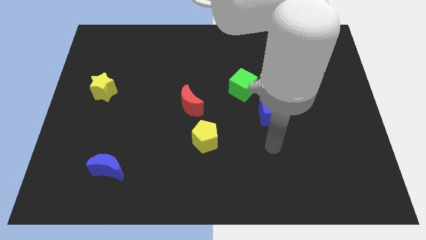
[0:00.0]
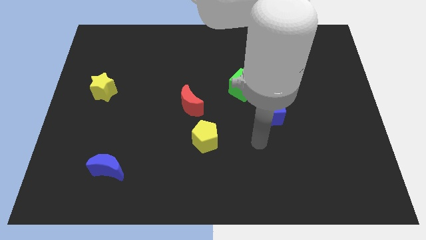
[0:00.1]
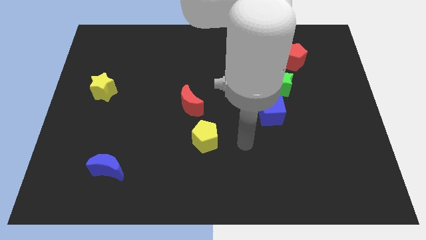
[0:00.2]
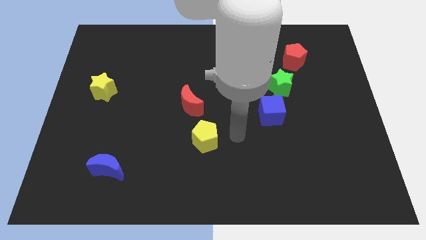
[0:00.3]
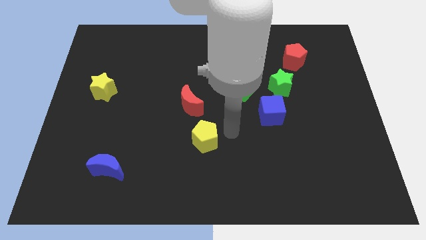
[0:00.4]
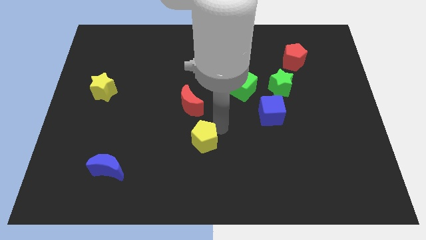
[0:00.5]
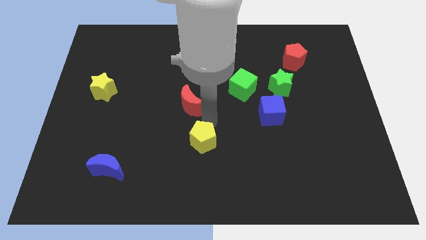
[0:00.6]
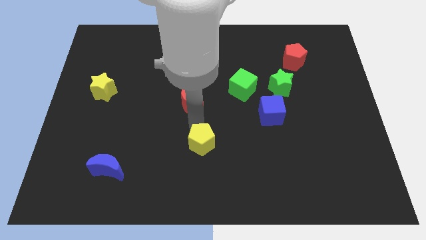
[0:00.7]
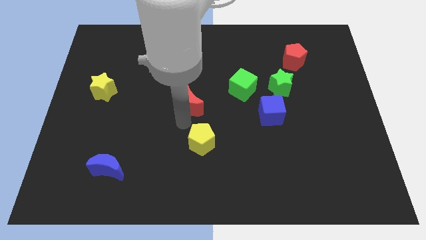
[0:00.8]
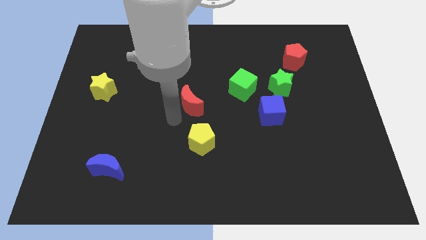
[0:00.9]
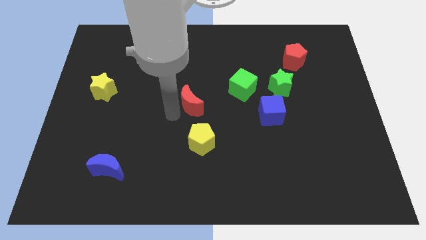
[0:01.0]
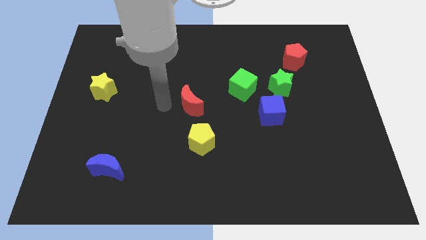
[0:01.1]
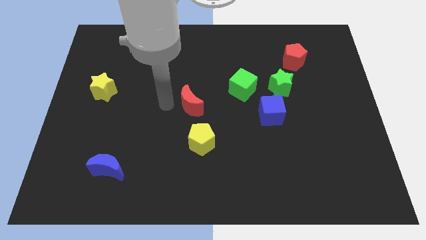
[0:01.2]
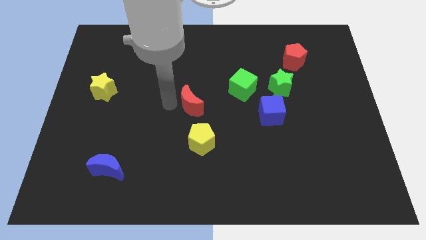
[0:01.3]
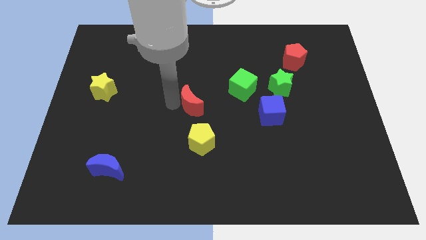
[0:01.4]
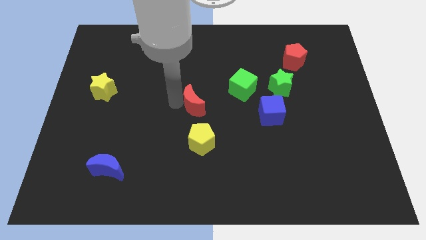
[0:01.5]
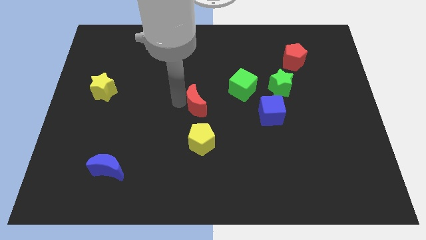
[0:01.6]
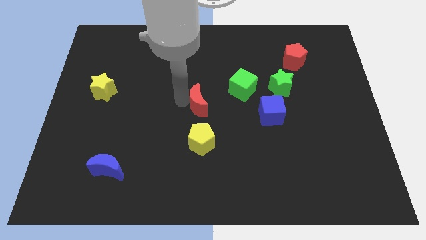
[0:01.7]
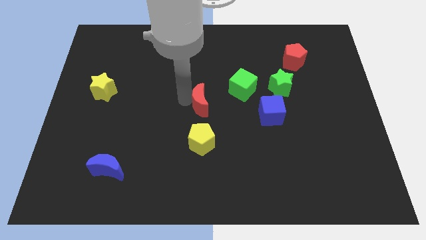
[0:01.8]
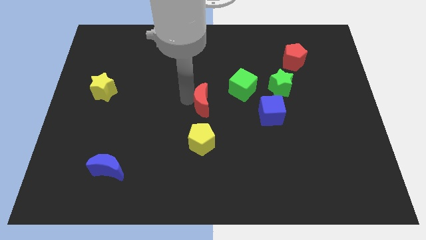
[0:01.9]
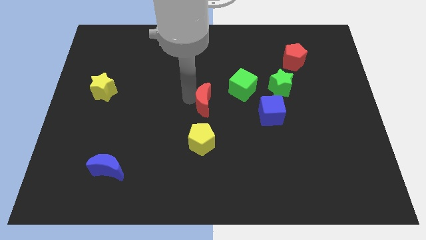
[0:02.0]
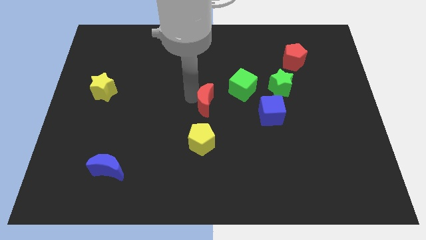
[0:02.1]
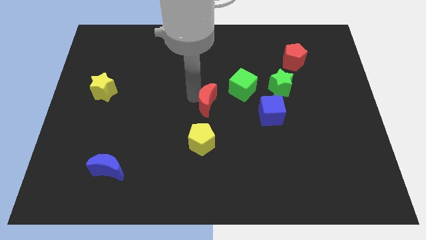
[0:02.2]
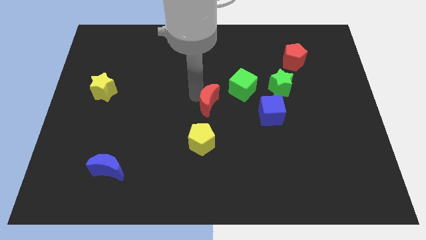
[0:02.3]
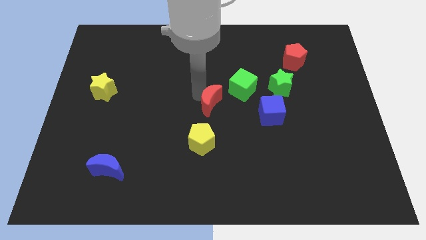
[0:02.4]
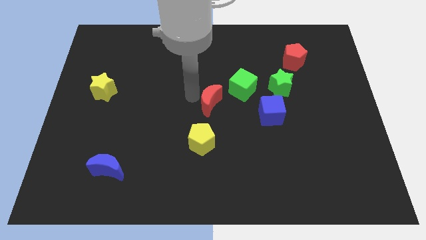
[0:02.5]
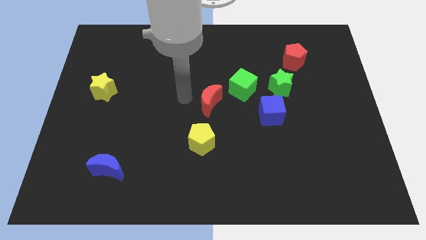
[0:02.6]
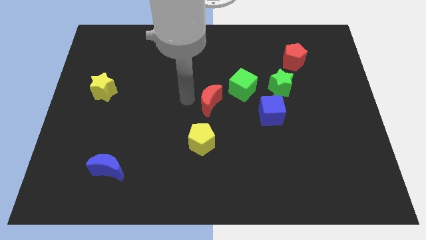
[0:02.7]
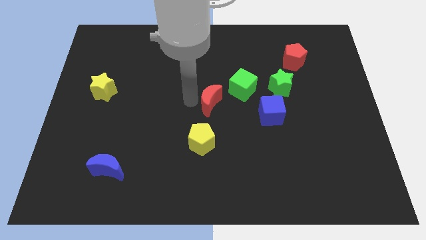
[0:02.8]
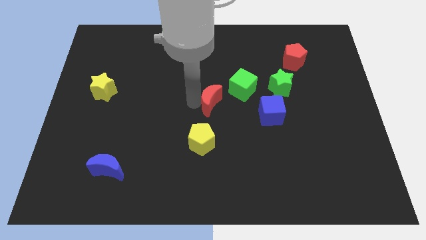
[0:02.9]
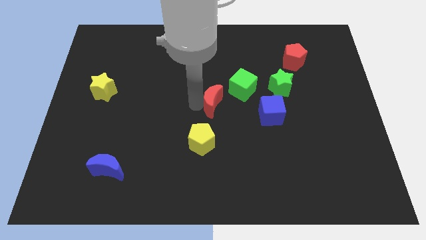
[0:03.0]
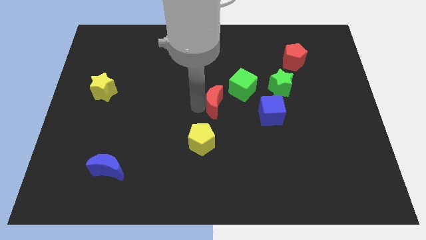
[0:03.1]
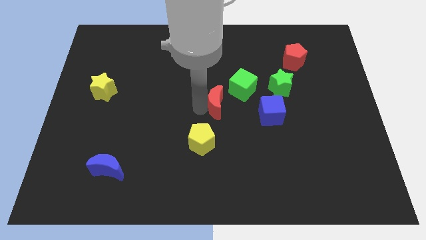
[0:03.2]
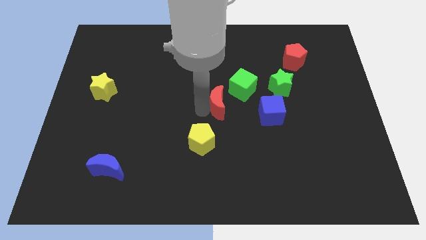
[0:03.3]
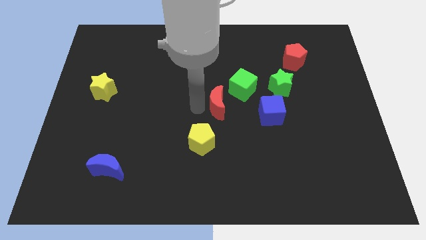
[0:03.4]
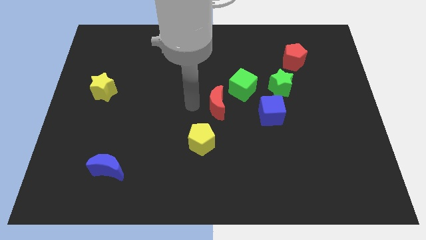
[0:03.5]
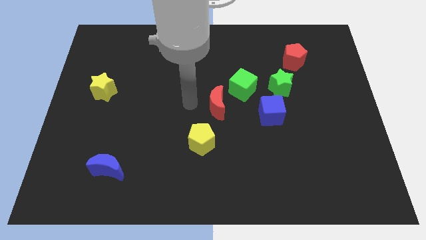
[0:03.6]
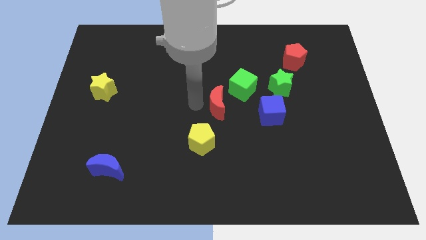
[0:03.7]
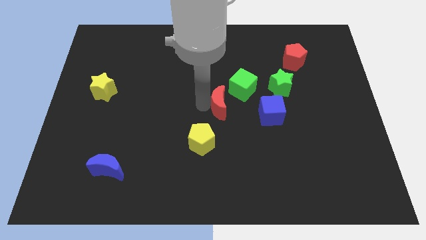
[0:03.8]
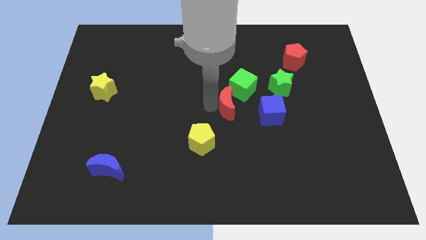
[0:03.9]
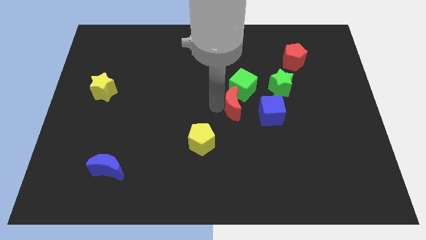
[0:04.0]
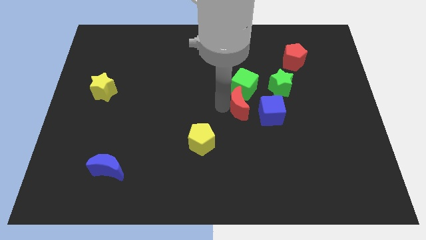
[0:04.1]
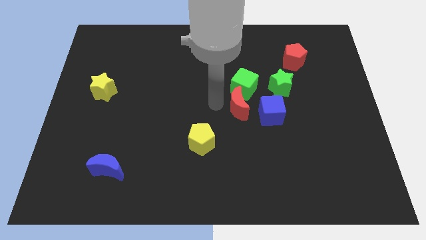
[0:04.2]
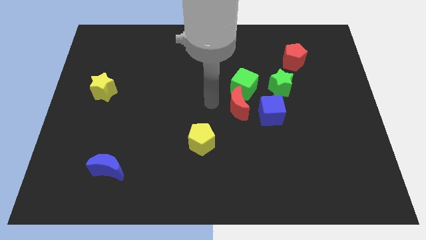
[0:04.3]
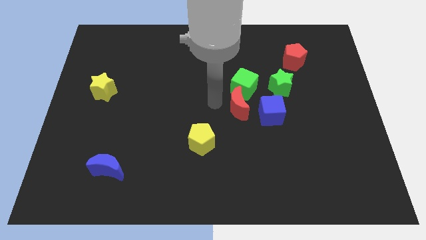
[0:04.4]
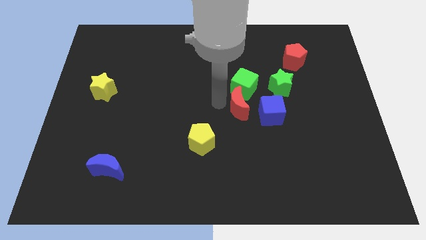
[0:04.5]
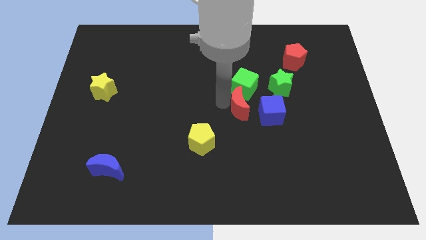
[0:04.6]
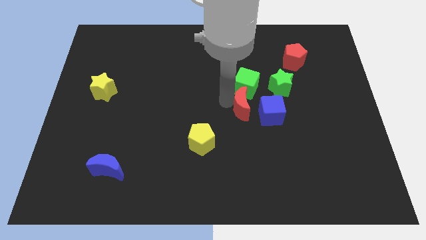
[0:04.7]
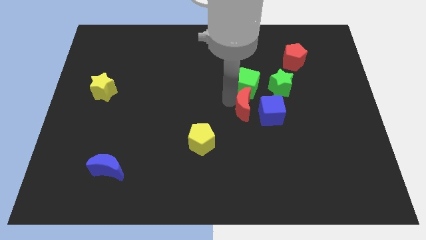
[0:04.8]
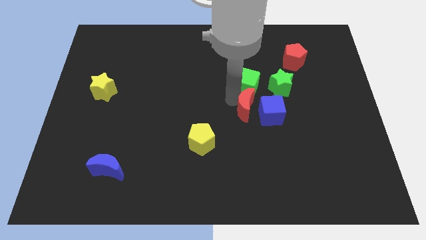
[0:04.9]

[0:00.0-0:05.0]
move the red moon towards the blue cube

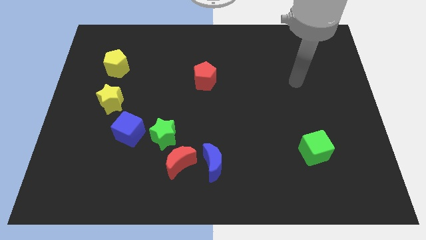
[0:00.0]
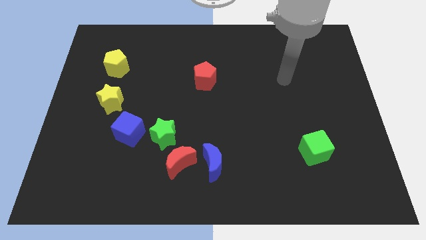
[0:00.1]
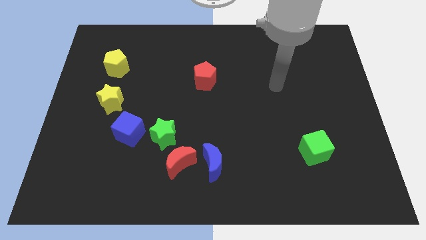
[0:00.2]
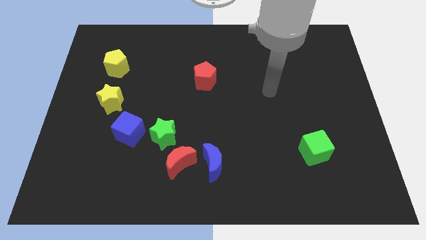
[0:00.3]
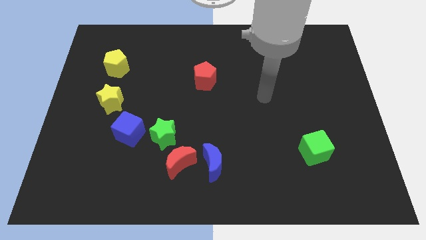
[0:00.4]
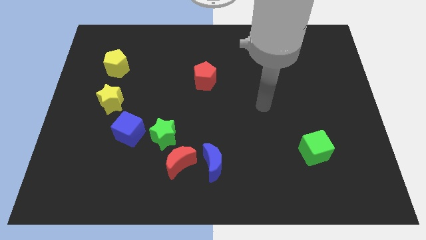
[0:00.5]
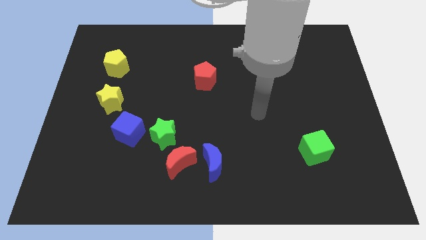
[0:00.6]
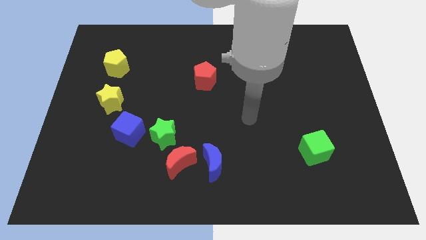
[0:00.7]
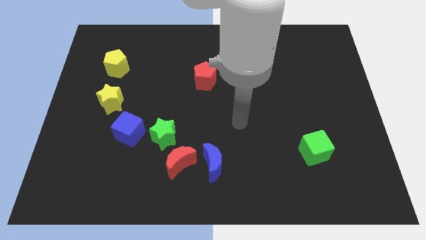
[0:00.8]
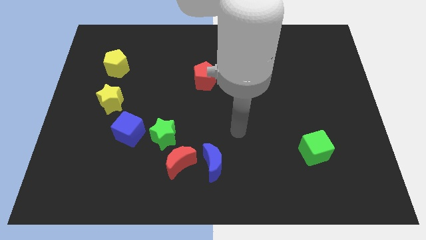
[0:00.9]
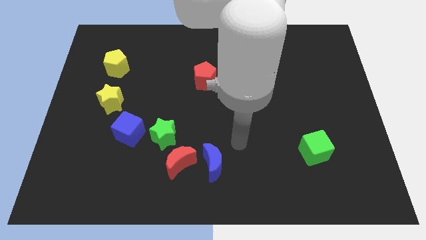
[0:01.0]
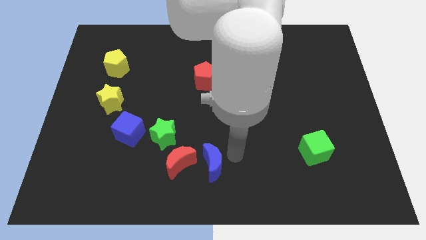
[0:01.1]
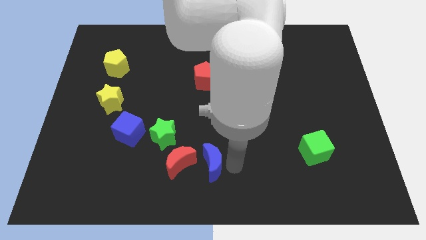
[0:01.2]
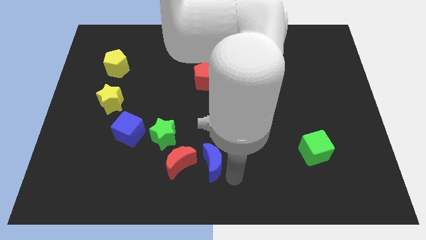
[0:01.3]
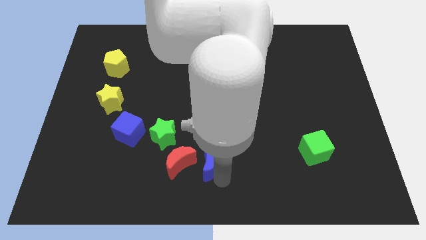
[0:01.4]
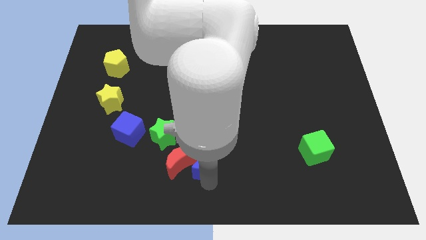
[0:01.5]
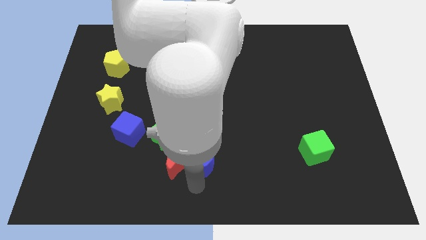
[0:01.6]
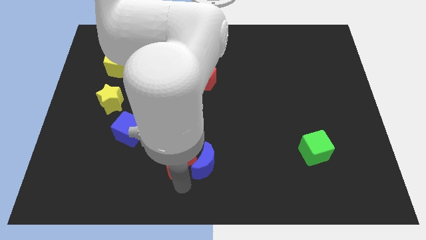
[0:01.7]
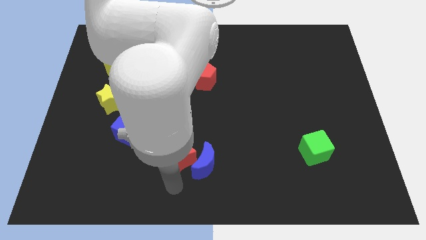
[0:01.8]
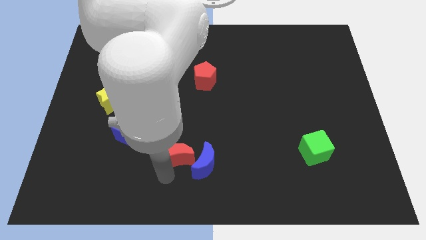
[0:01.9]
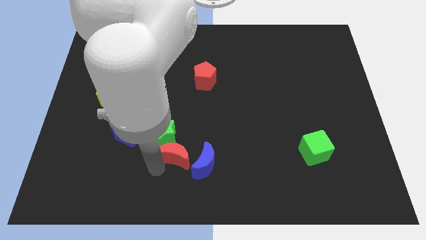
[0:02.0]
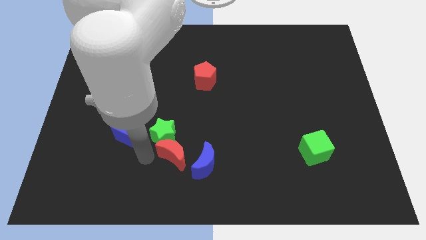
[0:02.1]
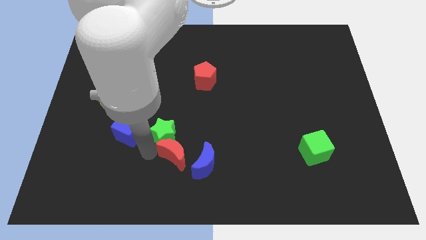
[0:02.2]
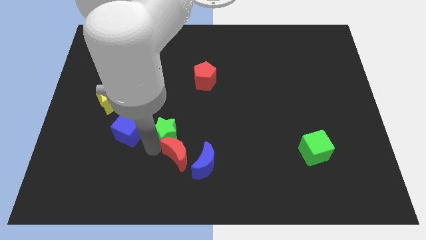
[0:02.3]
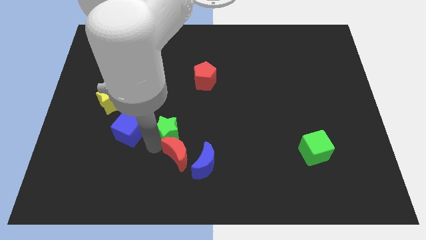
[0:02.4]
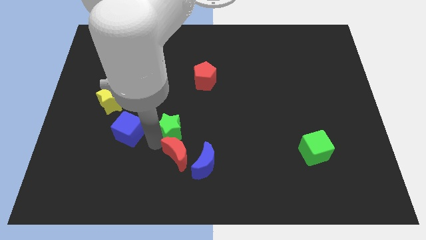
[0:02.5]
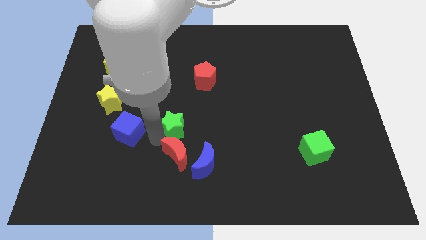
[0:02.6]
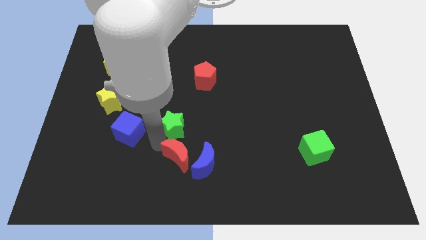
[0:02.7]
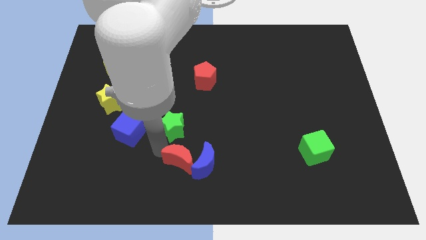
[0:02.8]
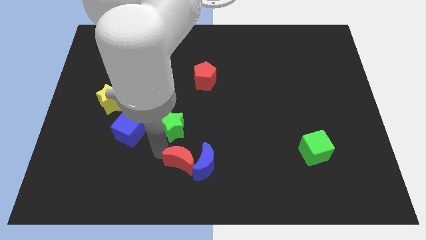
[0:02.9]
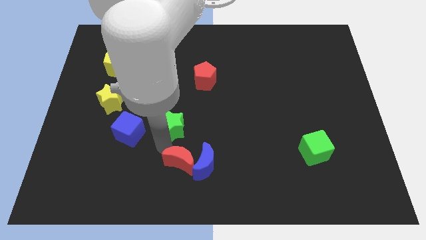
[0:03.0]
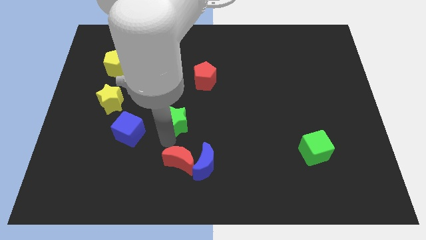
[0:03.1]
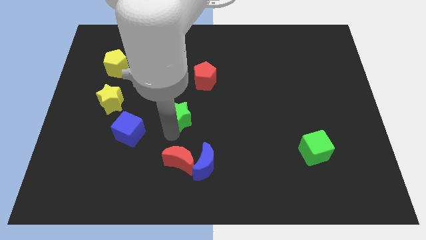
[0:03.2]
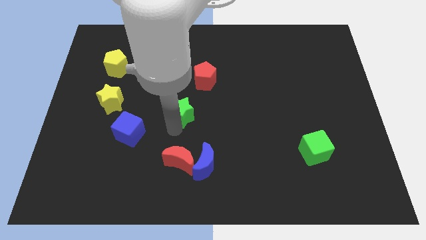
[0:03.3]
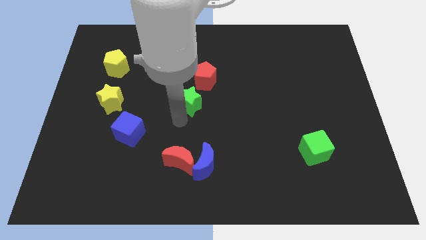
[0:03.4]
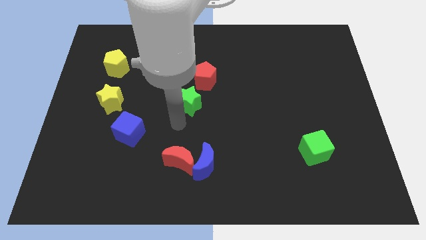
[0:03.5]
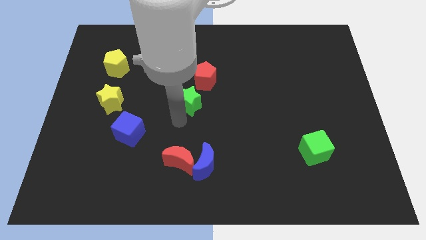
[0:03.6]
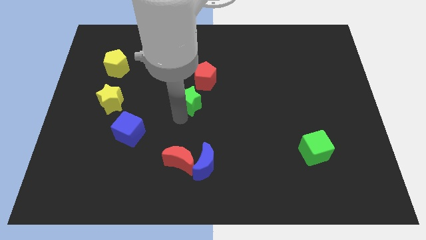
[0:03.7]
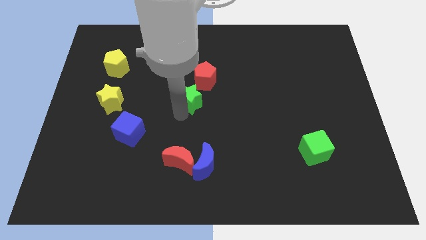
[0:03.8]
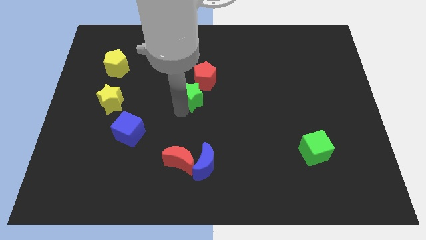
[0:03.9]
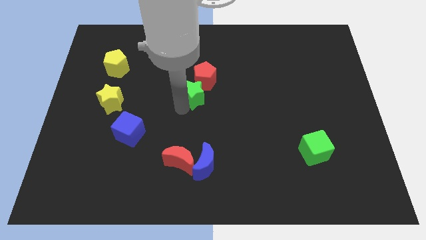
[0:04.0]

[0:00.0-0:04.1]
put the green star close to the red pentagon
